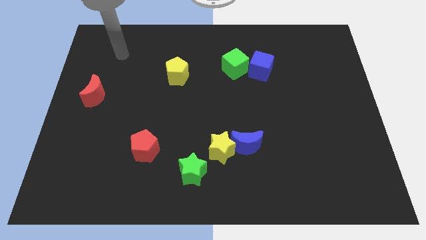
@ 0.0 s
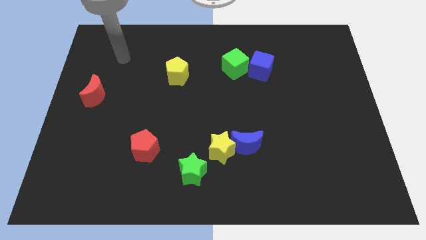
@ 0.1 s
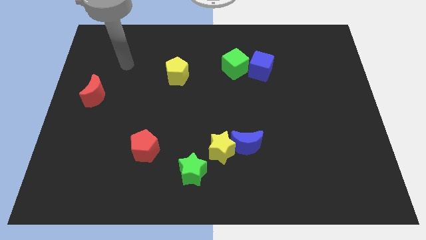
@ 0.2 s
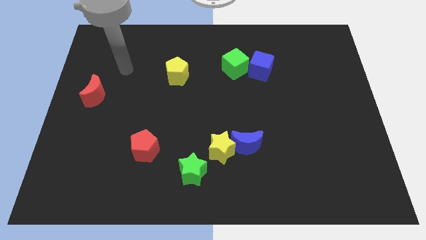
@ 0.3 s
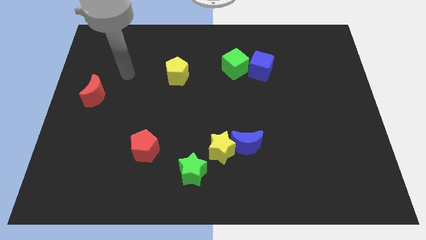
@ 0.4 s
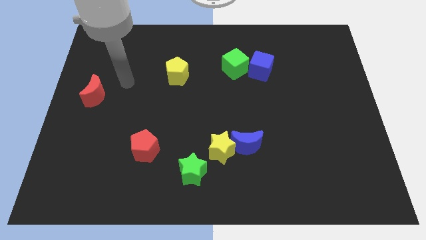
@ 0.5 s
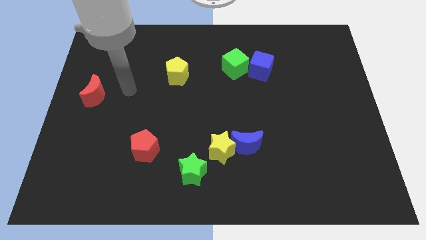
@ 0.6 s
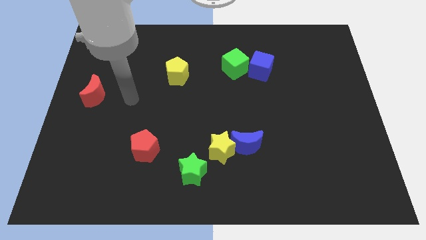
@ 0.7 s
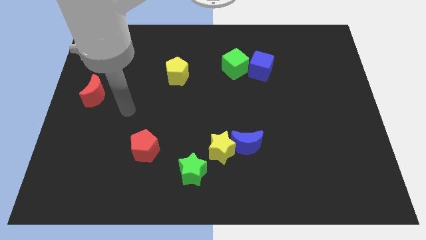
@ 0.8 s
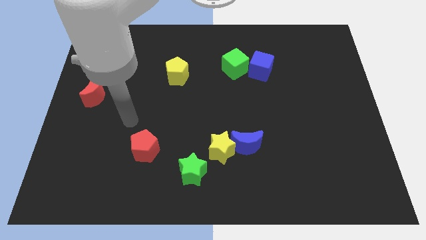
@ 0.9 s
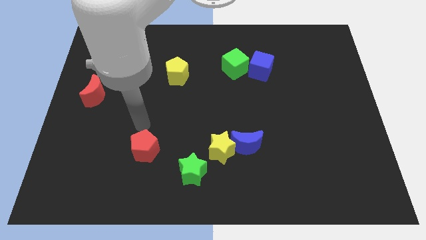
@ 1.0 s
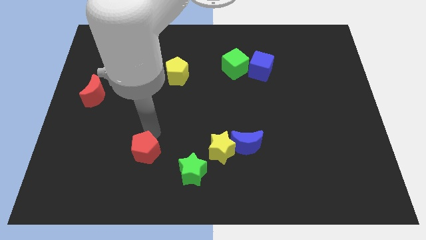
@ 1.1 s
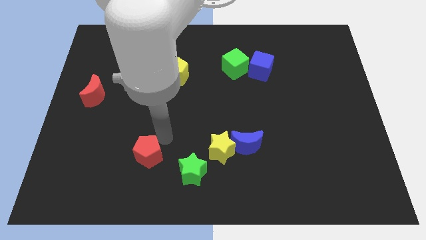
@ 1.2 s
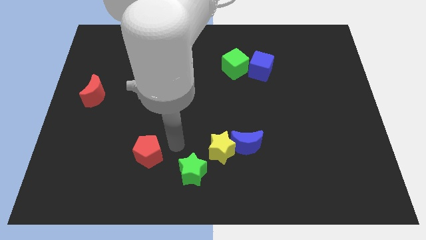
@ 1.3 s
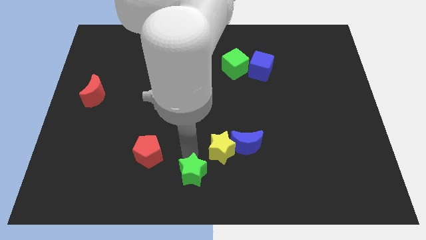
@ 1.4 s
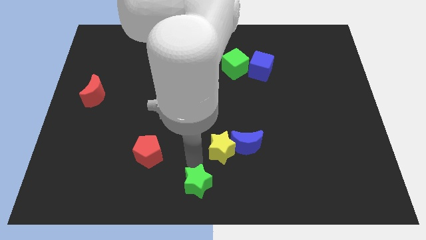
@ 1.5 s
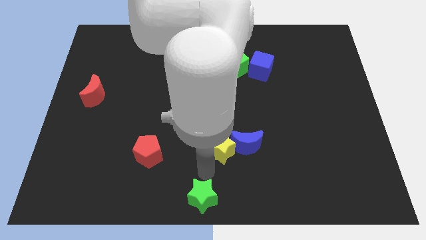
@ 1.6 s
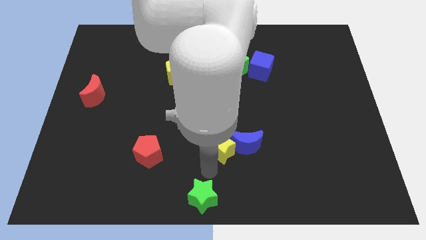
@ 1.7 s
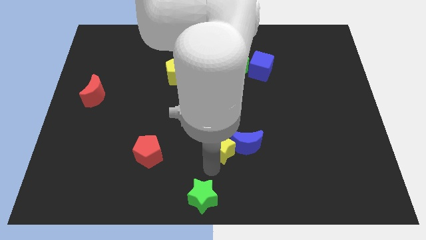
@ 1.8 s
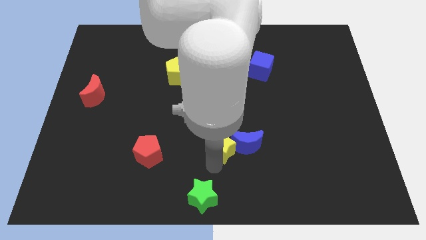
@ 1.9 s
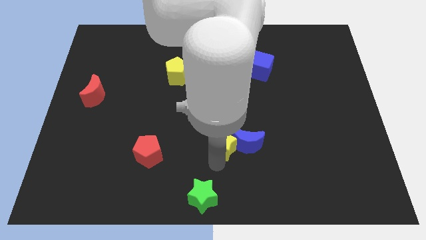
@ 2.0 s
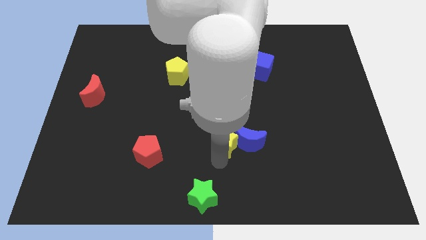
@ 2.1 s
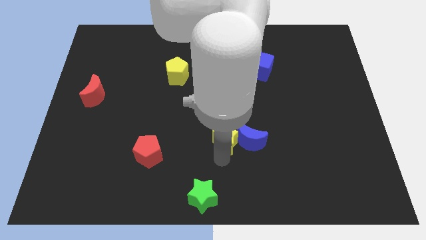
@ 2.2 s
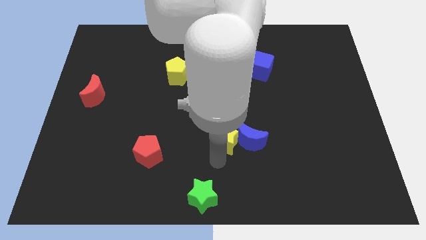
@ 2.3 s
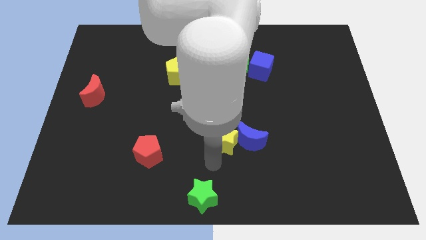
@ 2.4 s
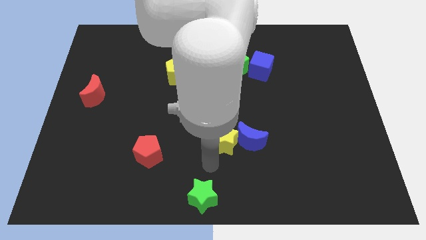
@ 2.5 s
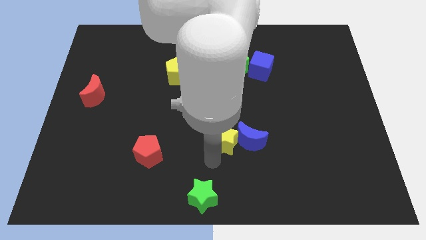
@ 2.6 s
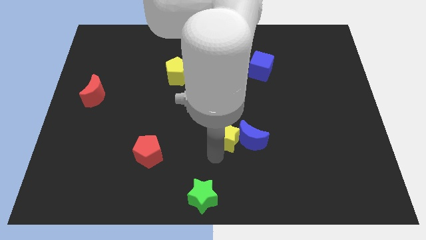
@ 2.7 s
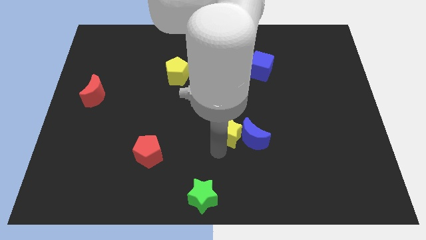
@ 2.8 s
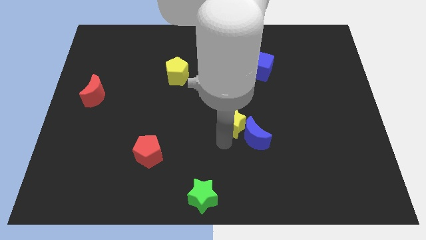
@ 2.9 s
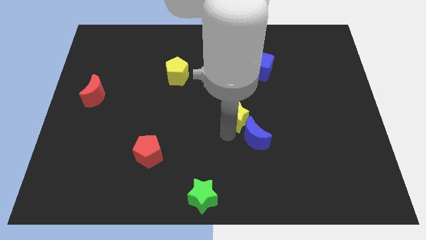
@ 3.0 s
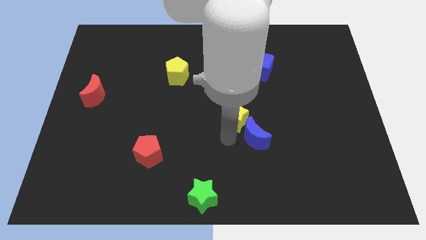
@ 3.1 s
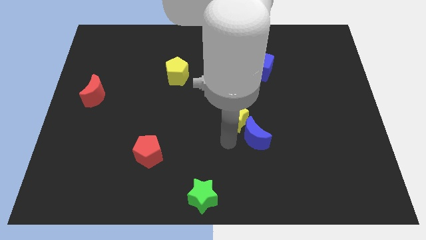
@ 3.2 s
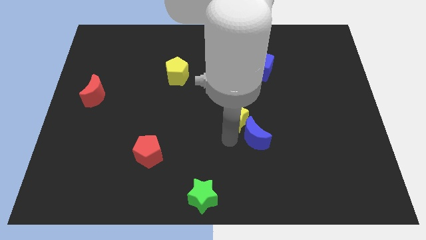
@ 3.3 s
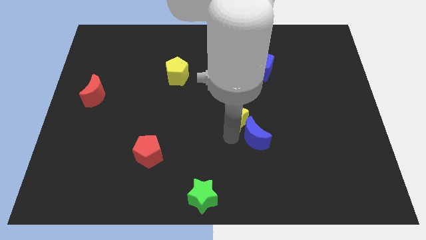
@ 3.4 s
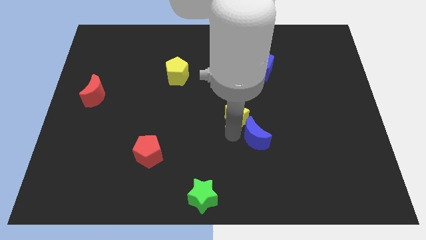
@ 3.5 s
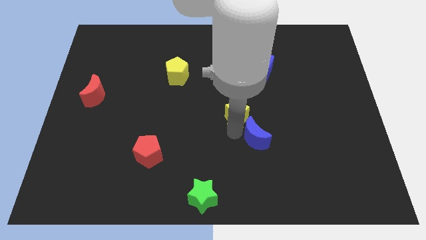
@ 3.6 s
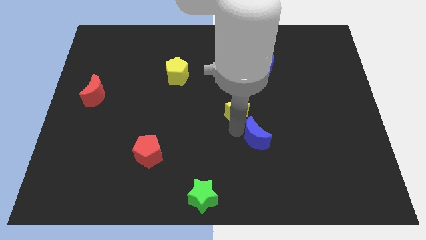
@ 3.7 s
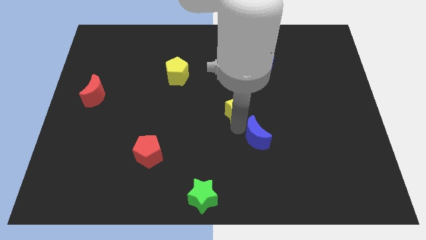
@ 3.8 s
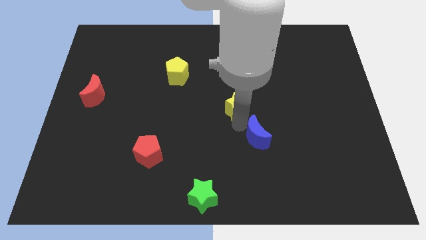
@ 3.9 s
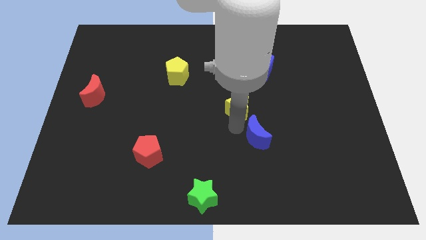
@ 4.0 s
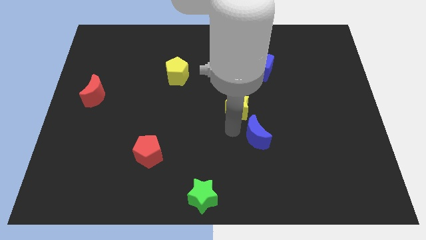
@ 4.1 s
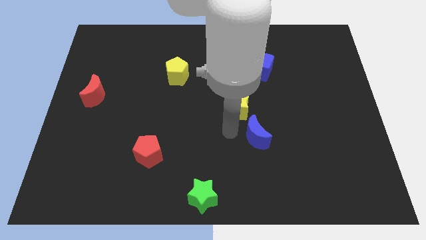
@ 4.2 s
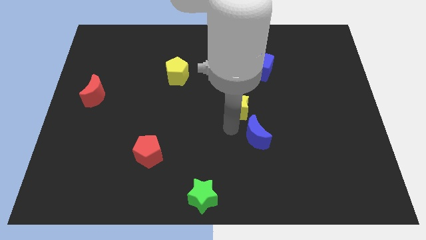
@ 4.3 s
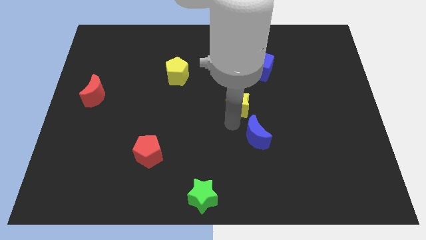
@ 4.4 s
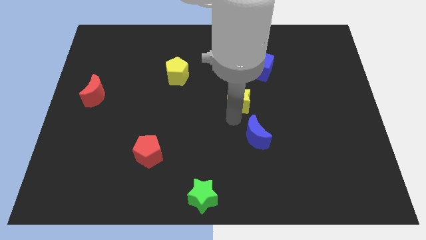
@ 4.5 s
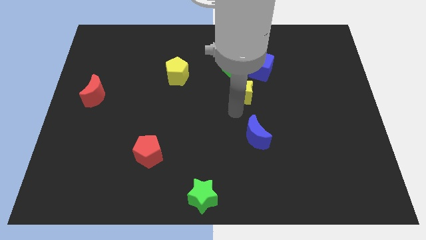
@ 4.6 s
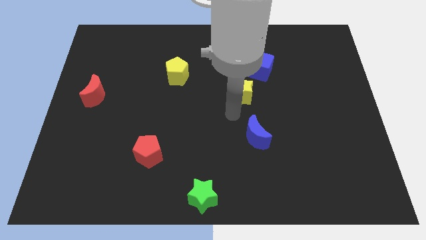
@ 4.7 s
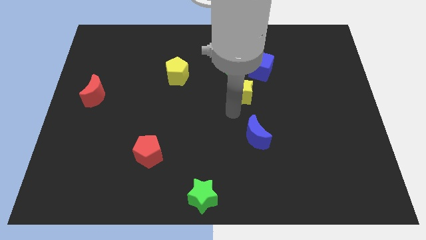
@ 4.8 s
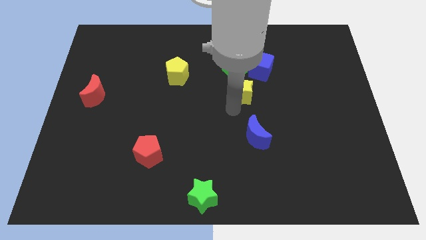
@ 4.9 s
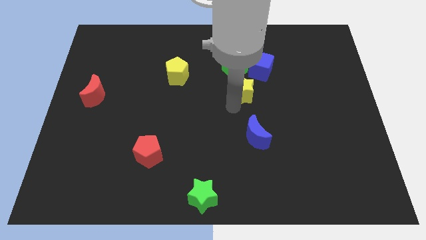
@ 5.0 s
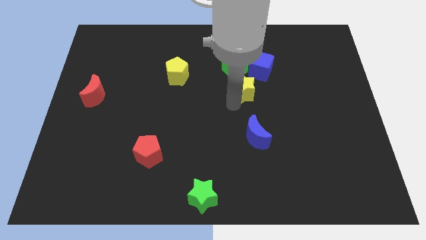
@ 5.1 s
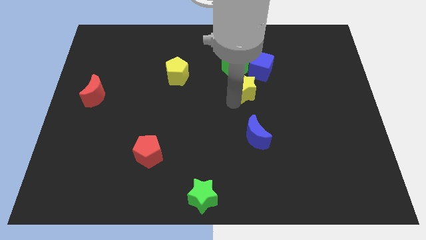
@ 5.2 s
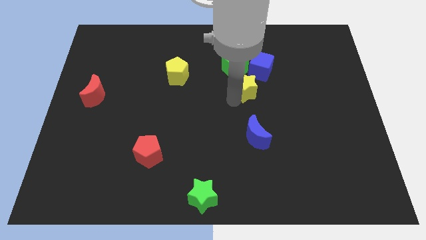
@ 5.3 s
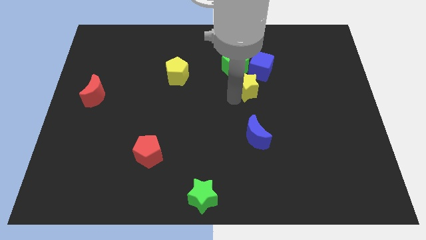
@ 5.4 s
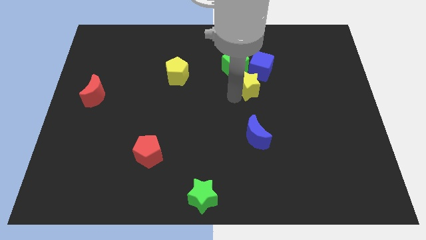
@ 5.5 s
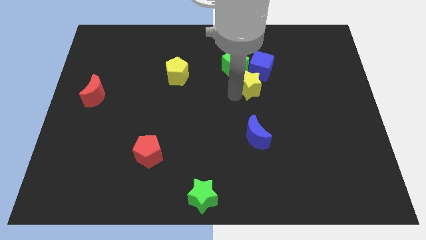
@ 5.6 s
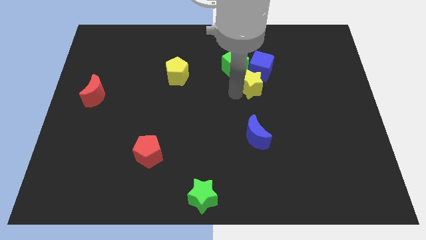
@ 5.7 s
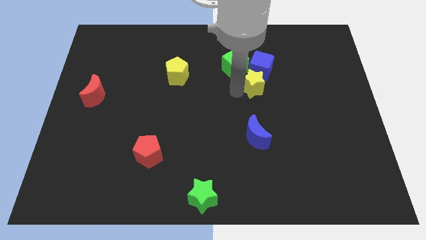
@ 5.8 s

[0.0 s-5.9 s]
move the yellow star towards the blue cube

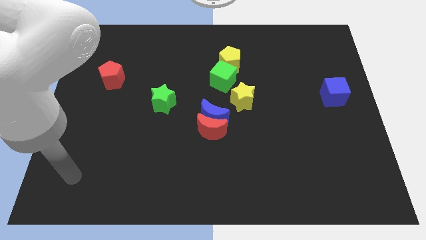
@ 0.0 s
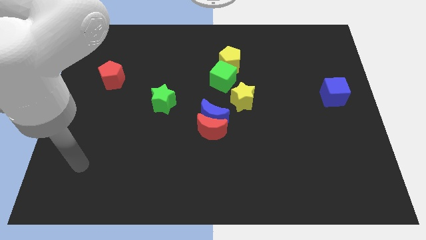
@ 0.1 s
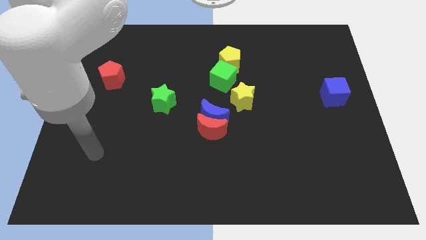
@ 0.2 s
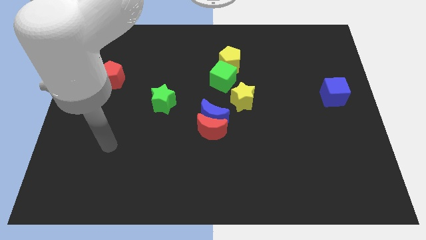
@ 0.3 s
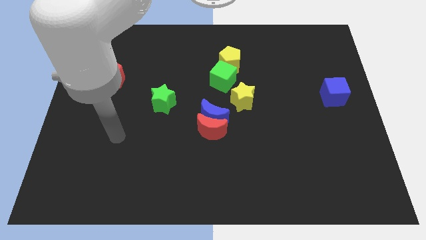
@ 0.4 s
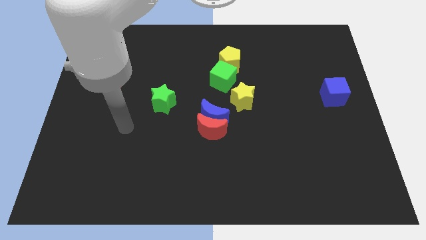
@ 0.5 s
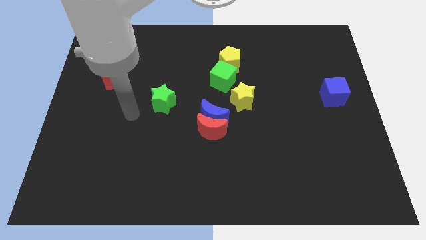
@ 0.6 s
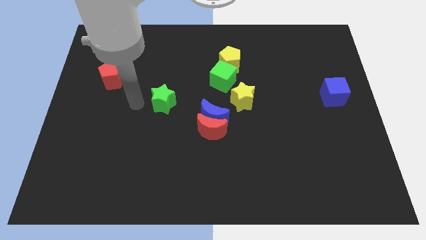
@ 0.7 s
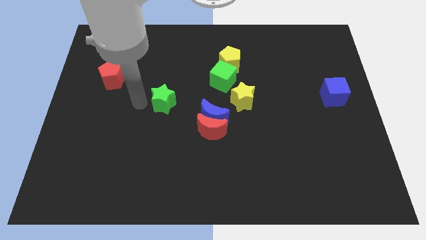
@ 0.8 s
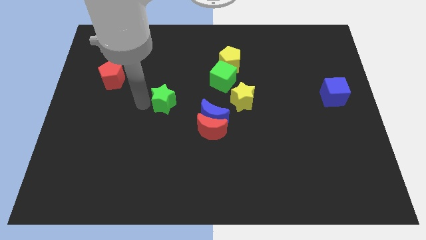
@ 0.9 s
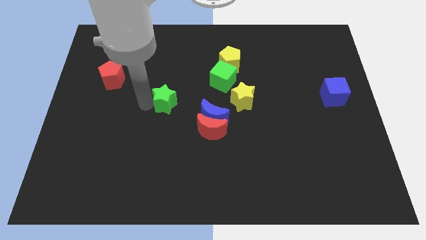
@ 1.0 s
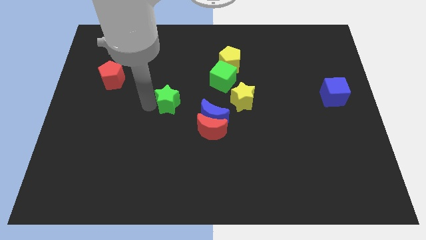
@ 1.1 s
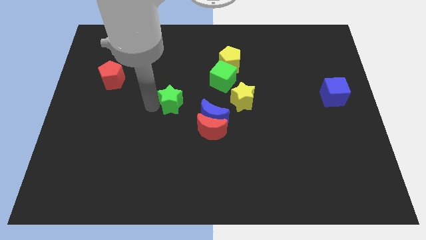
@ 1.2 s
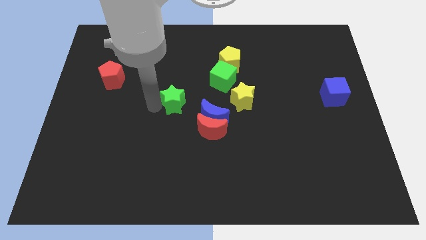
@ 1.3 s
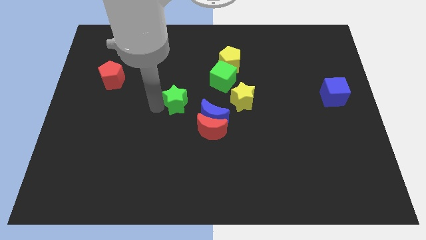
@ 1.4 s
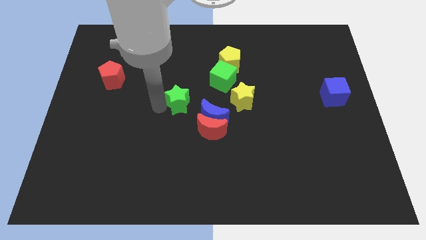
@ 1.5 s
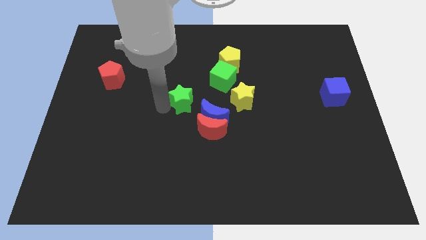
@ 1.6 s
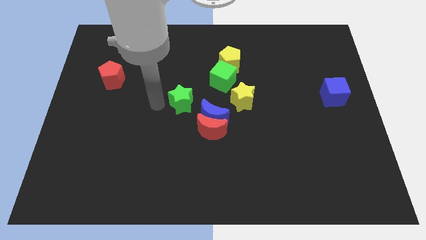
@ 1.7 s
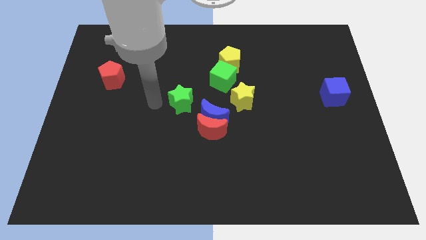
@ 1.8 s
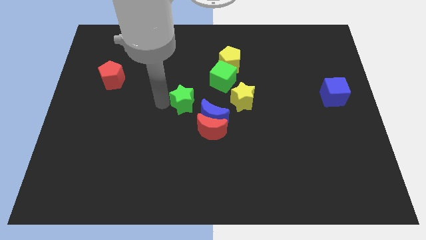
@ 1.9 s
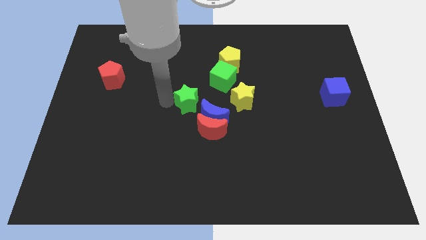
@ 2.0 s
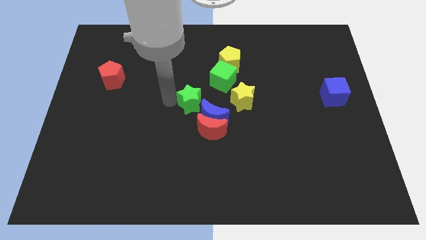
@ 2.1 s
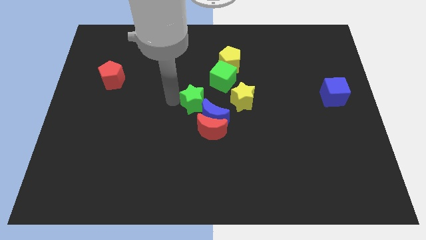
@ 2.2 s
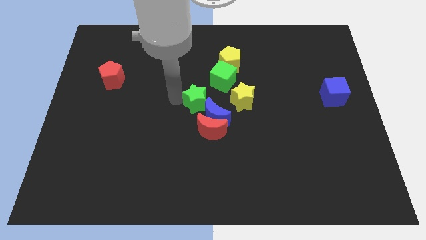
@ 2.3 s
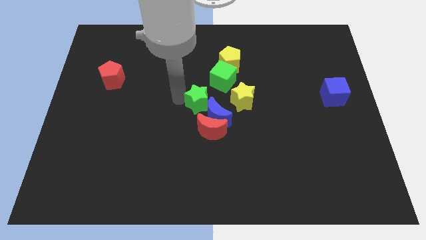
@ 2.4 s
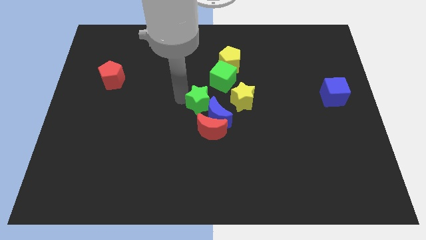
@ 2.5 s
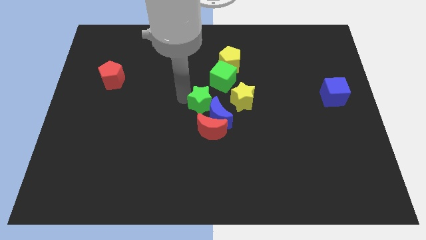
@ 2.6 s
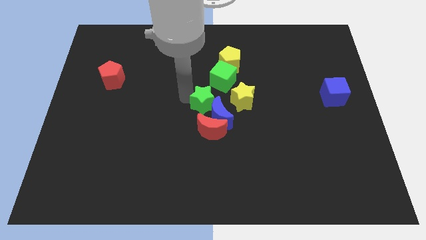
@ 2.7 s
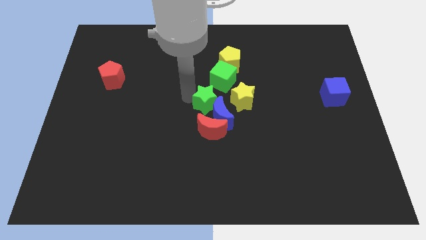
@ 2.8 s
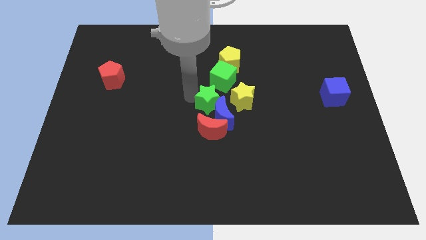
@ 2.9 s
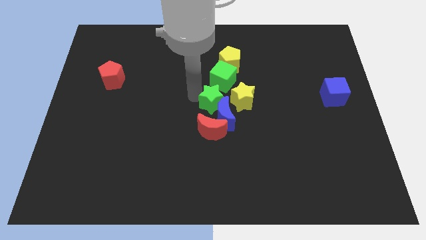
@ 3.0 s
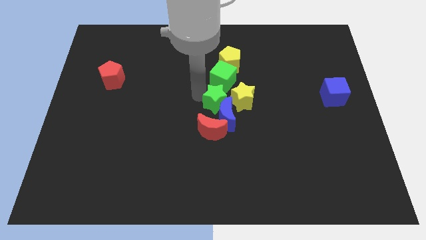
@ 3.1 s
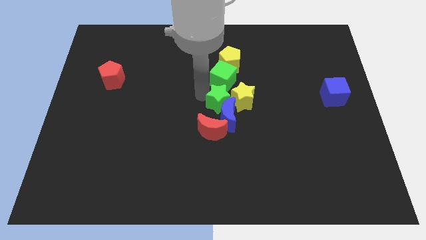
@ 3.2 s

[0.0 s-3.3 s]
push the green star to the yellow star
